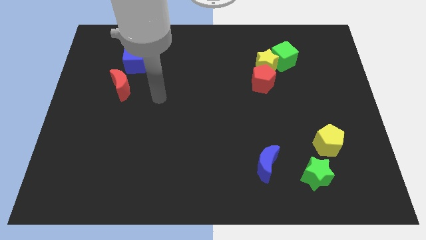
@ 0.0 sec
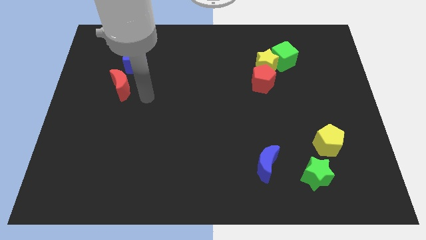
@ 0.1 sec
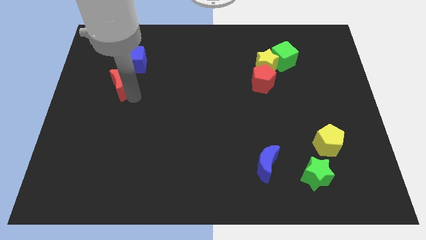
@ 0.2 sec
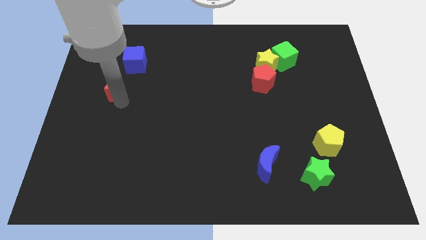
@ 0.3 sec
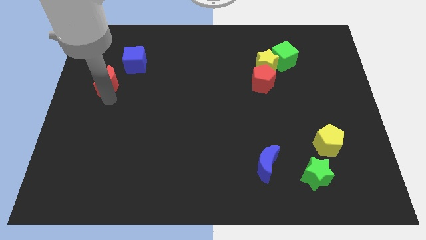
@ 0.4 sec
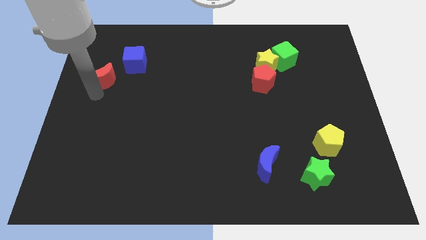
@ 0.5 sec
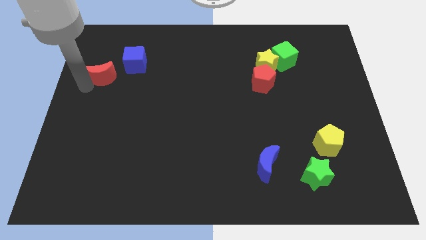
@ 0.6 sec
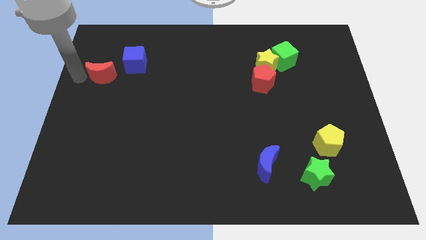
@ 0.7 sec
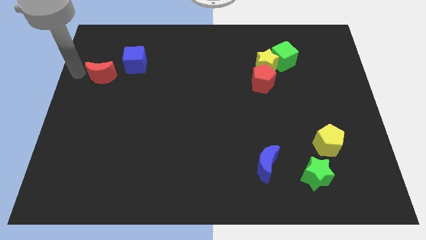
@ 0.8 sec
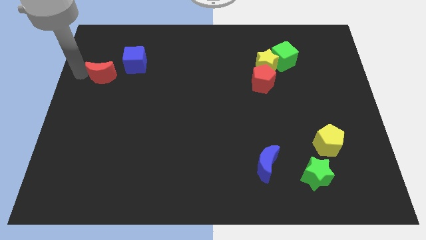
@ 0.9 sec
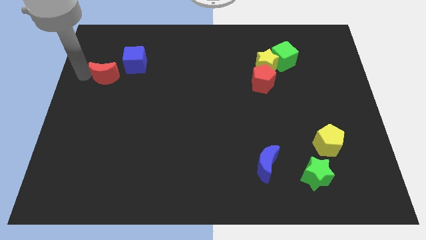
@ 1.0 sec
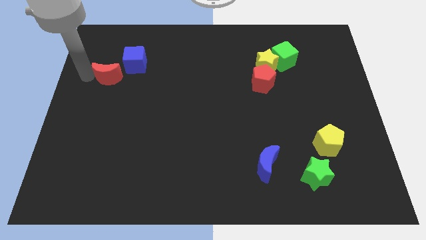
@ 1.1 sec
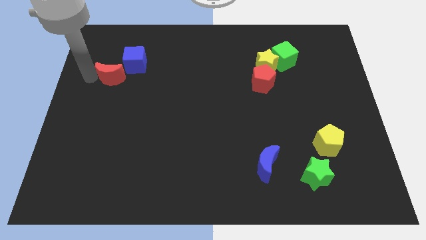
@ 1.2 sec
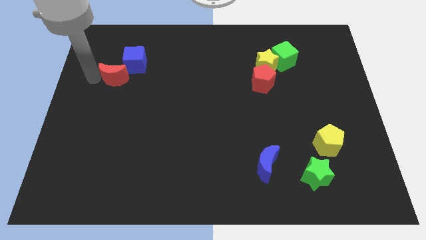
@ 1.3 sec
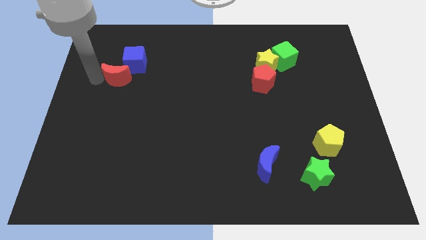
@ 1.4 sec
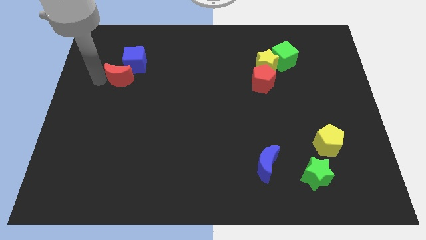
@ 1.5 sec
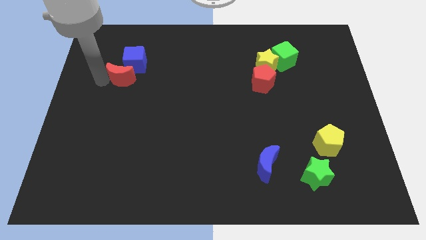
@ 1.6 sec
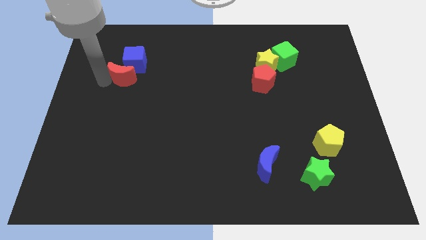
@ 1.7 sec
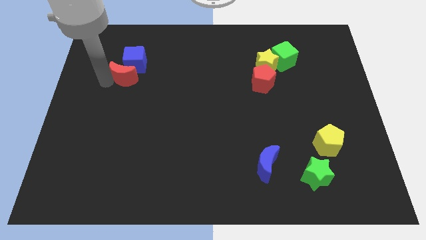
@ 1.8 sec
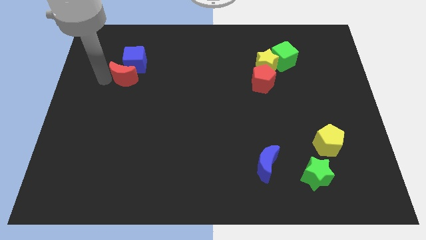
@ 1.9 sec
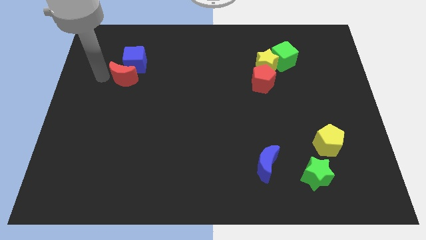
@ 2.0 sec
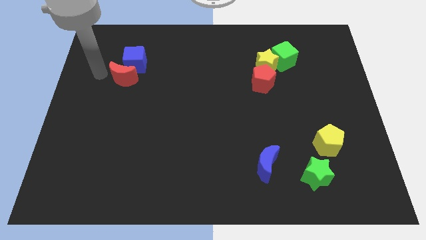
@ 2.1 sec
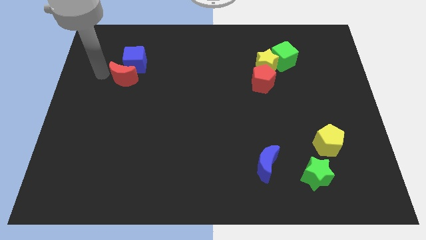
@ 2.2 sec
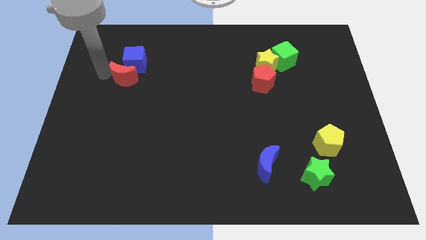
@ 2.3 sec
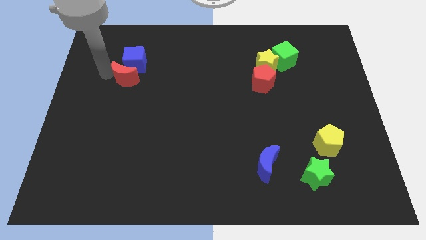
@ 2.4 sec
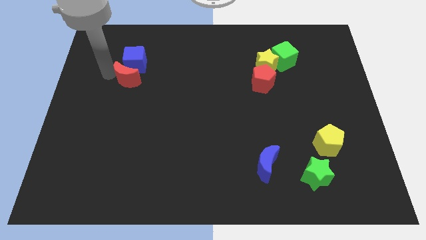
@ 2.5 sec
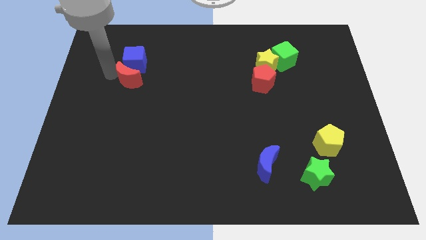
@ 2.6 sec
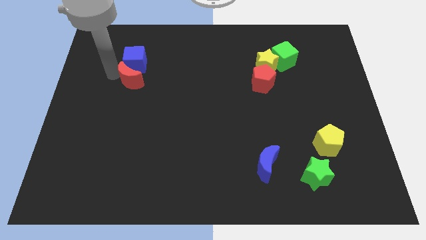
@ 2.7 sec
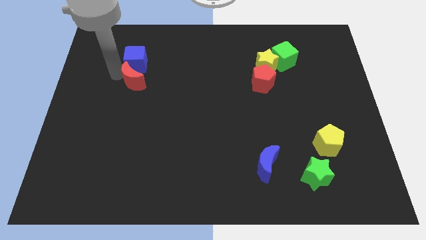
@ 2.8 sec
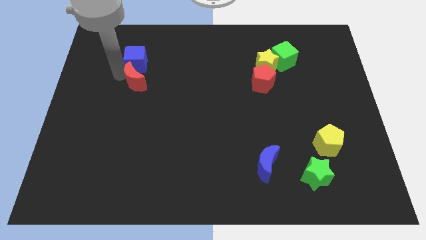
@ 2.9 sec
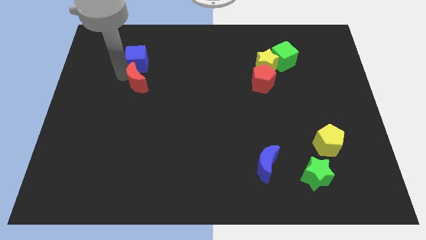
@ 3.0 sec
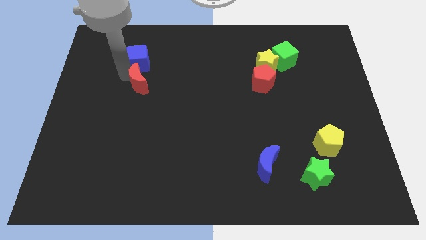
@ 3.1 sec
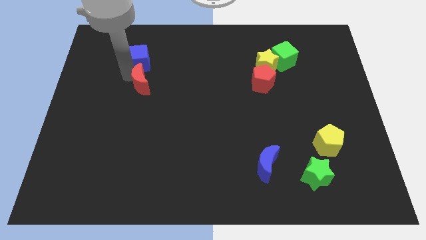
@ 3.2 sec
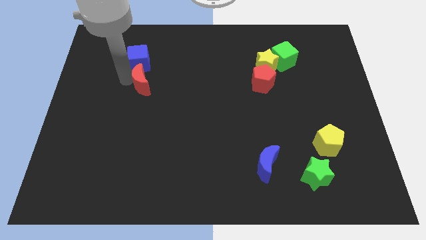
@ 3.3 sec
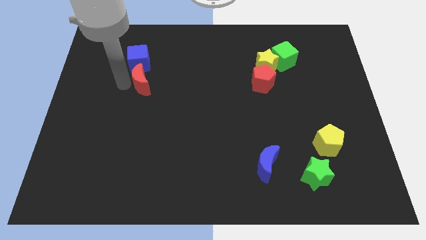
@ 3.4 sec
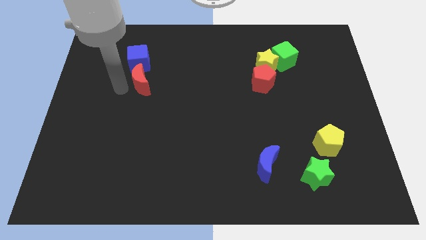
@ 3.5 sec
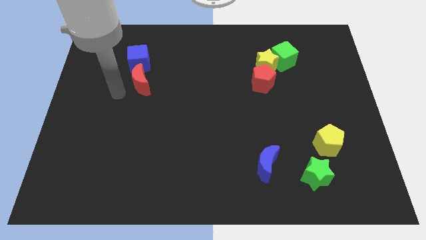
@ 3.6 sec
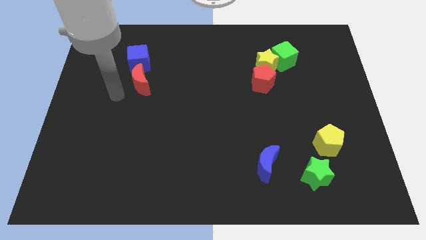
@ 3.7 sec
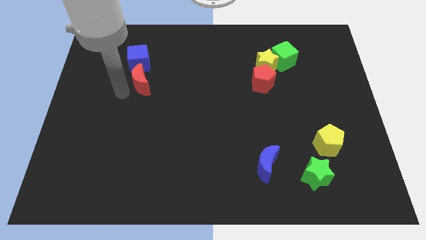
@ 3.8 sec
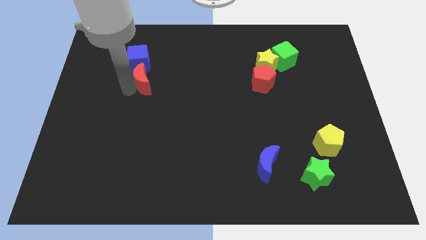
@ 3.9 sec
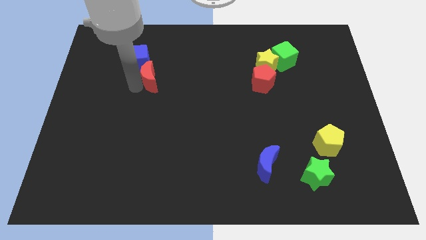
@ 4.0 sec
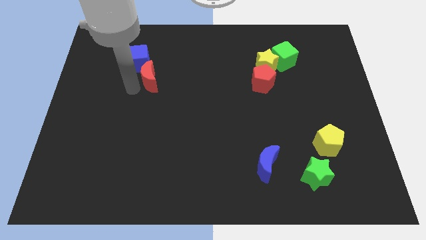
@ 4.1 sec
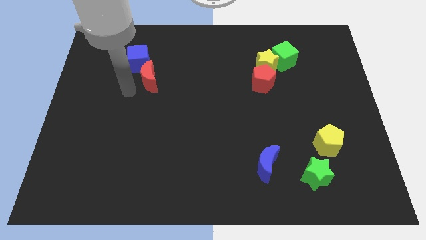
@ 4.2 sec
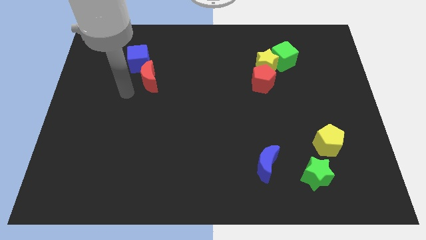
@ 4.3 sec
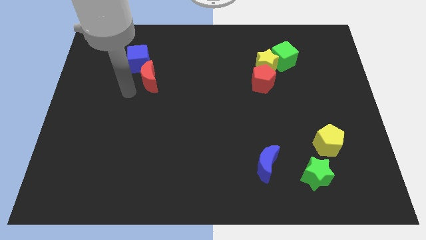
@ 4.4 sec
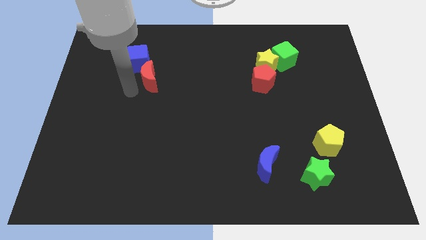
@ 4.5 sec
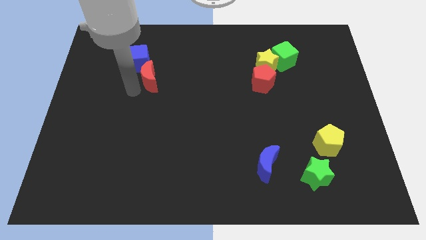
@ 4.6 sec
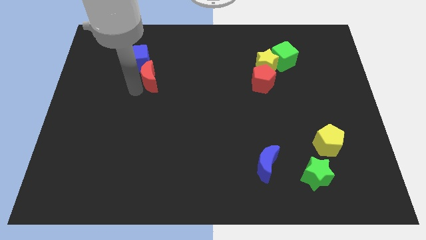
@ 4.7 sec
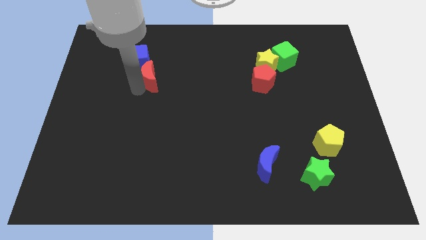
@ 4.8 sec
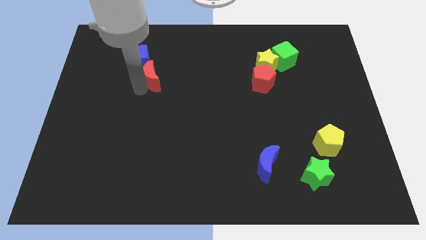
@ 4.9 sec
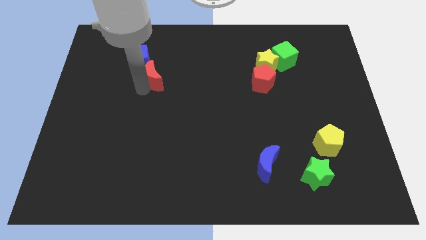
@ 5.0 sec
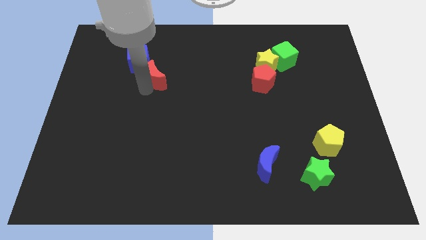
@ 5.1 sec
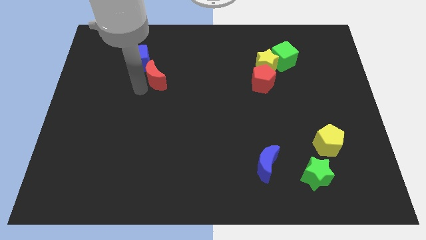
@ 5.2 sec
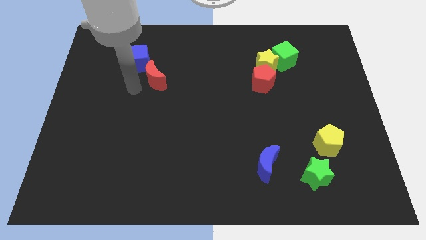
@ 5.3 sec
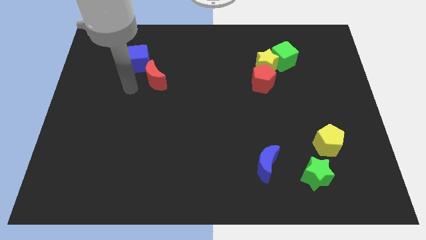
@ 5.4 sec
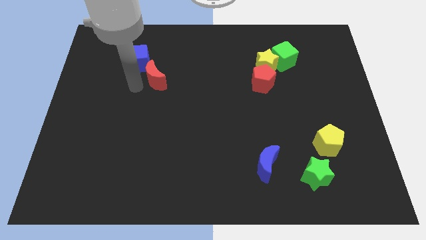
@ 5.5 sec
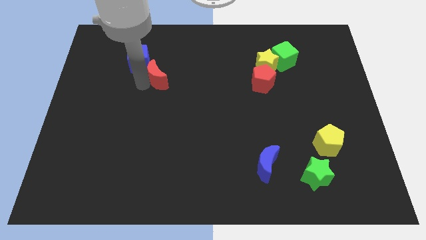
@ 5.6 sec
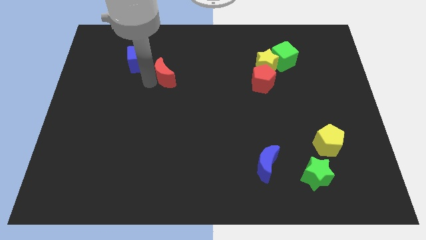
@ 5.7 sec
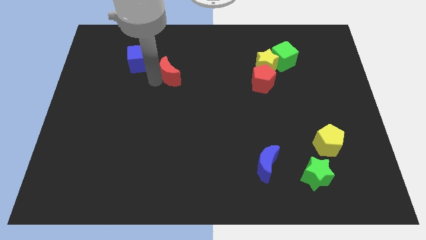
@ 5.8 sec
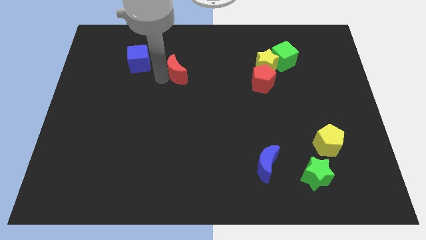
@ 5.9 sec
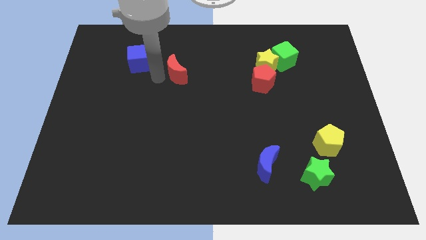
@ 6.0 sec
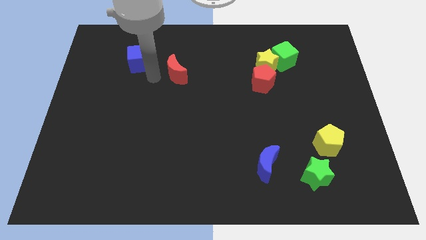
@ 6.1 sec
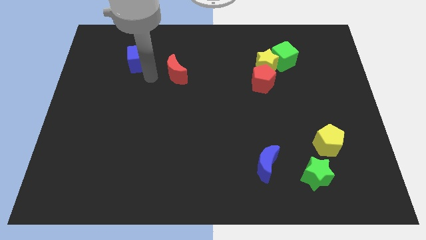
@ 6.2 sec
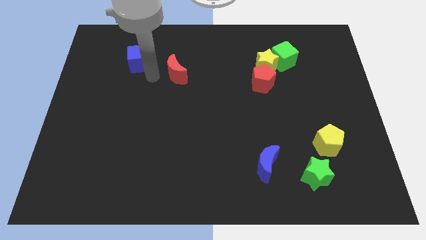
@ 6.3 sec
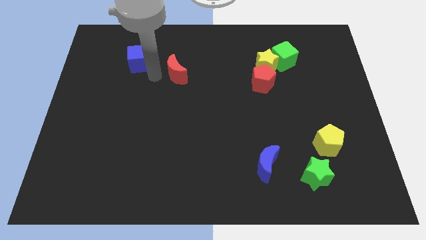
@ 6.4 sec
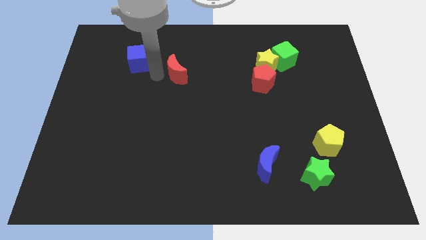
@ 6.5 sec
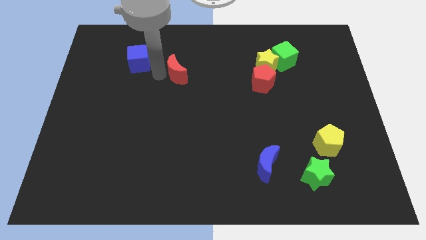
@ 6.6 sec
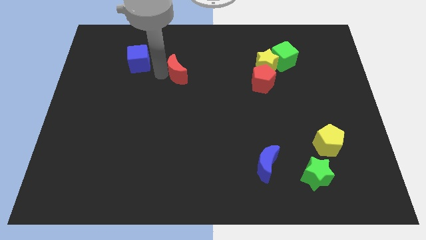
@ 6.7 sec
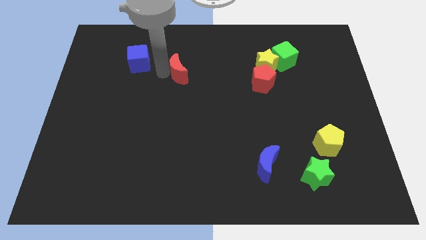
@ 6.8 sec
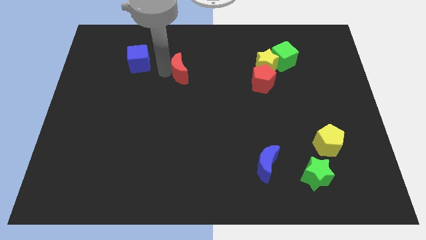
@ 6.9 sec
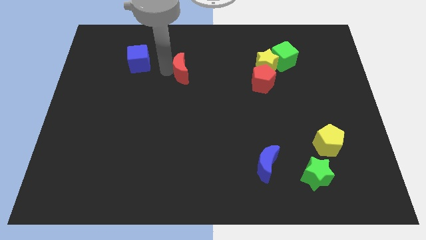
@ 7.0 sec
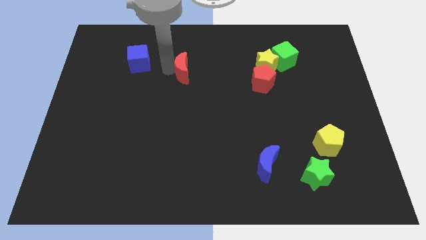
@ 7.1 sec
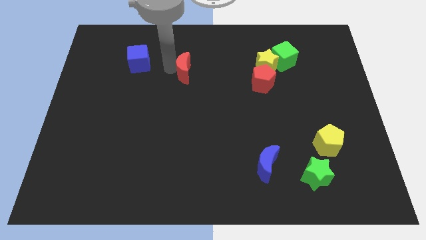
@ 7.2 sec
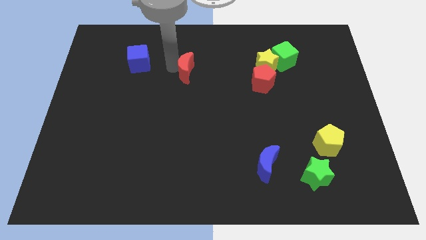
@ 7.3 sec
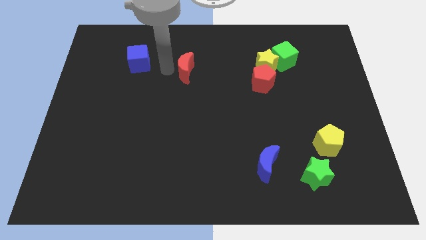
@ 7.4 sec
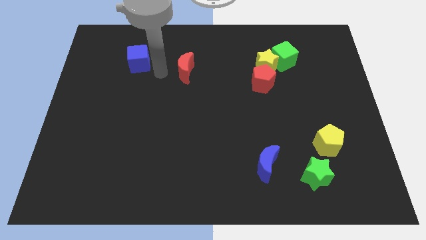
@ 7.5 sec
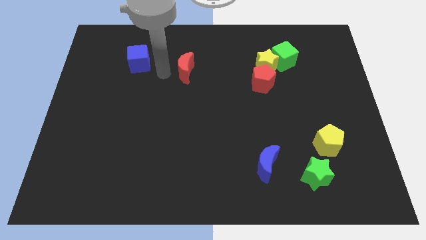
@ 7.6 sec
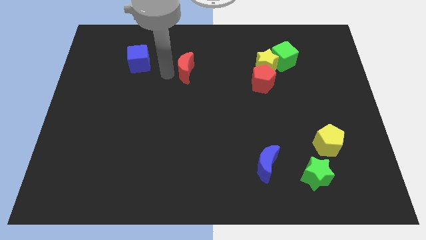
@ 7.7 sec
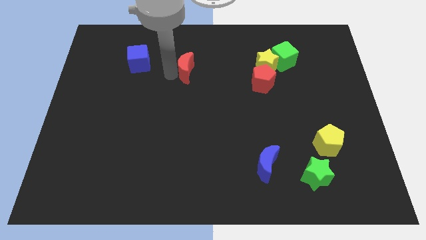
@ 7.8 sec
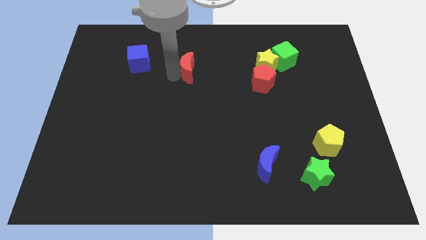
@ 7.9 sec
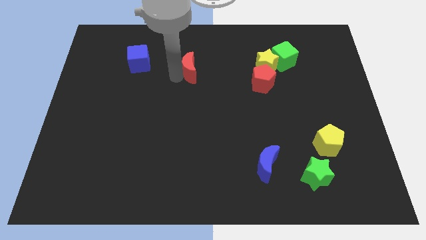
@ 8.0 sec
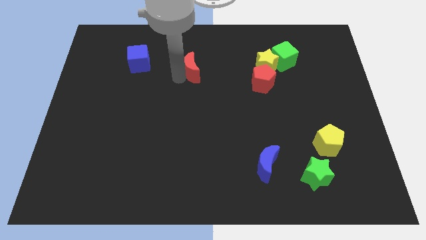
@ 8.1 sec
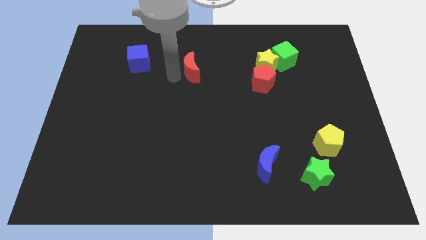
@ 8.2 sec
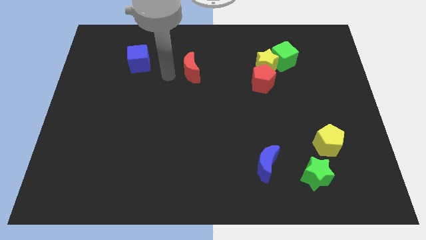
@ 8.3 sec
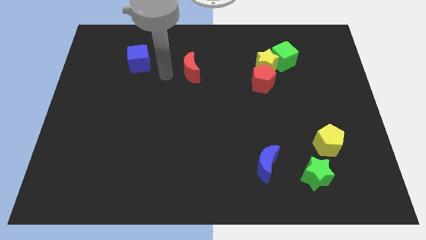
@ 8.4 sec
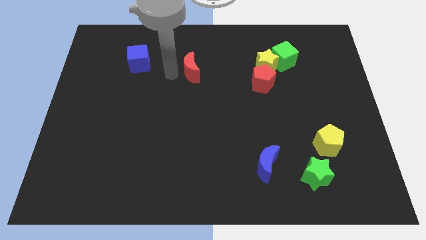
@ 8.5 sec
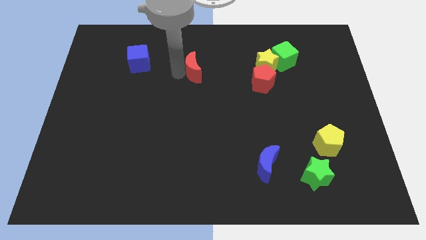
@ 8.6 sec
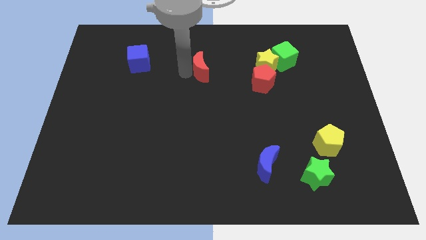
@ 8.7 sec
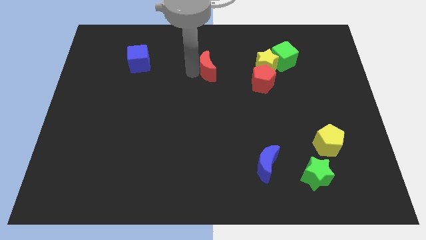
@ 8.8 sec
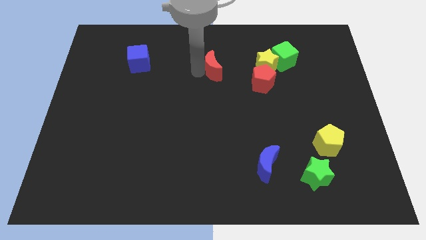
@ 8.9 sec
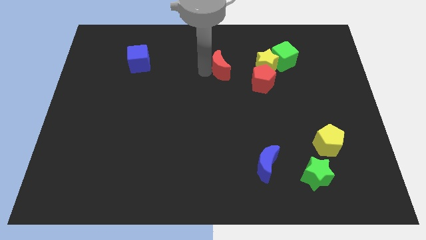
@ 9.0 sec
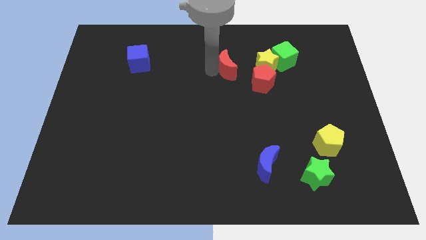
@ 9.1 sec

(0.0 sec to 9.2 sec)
put the red moon to the top left side of the red pentagon
